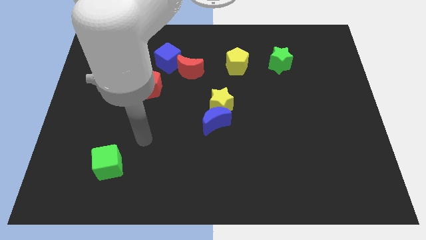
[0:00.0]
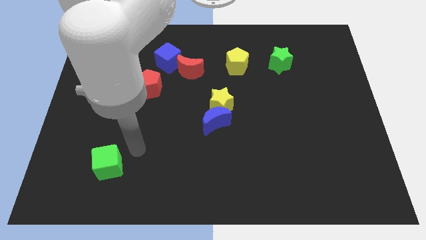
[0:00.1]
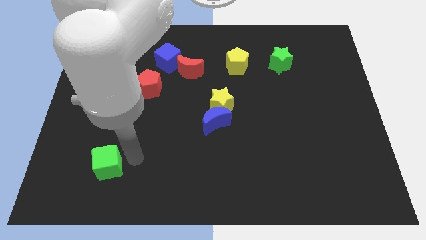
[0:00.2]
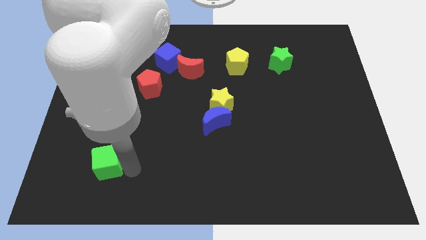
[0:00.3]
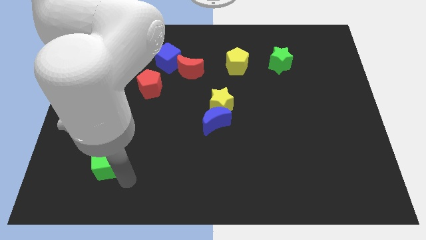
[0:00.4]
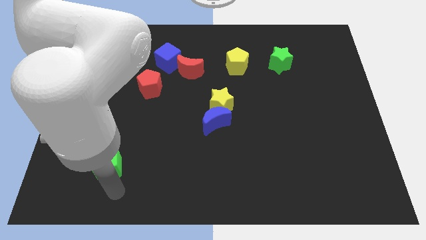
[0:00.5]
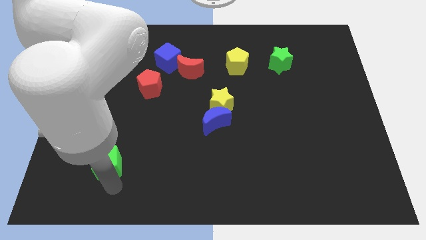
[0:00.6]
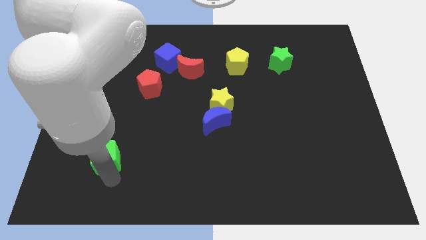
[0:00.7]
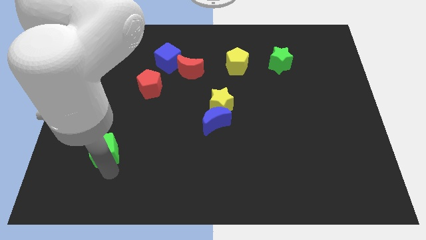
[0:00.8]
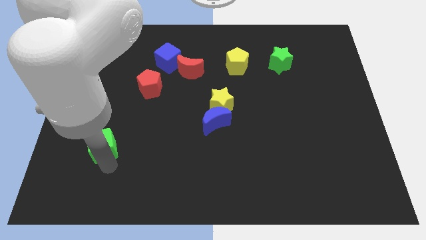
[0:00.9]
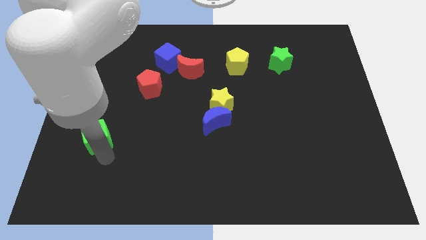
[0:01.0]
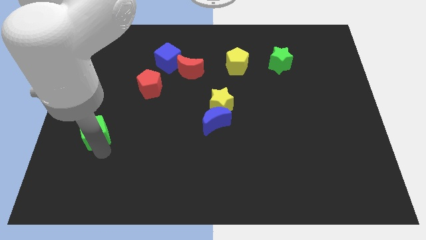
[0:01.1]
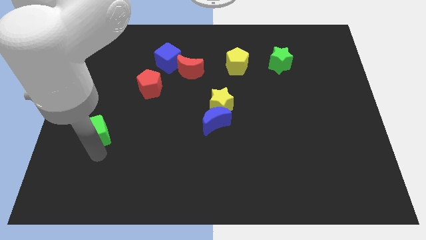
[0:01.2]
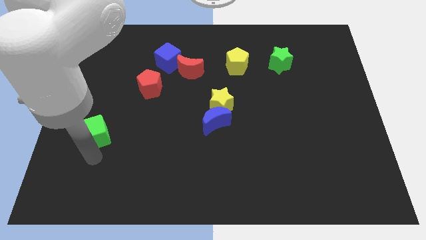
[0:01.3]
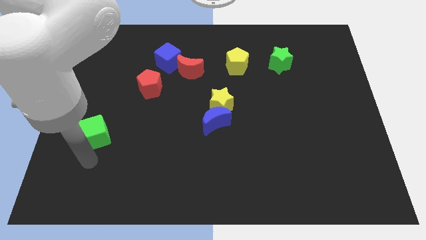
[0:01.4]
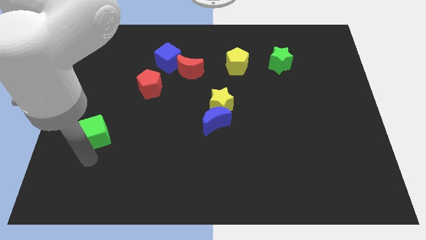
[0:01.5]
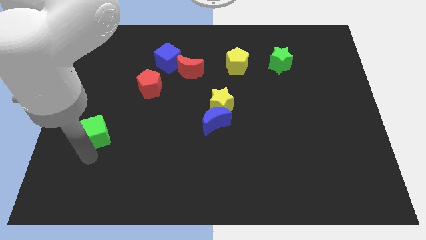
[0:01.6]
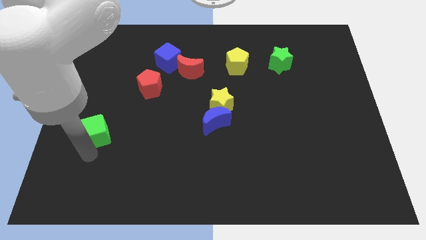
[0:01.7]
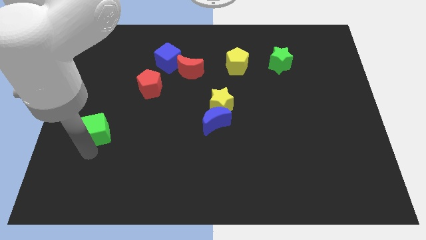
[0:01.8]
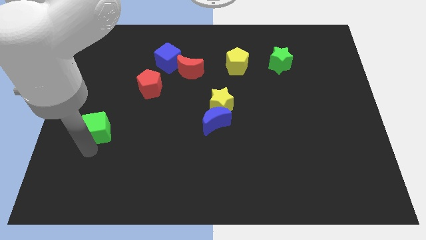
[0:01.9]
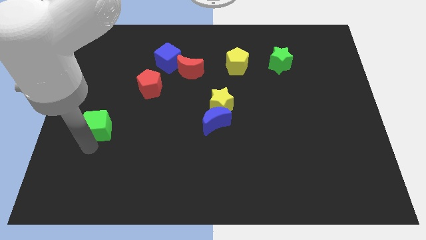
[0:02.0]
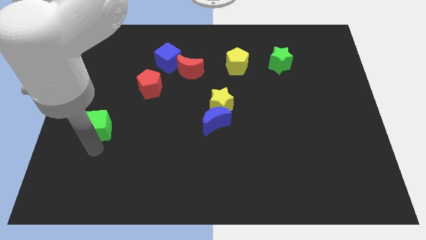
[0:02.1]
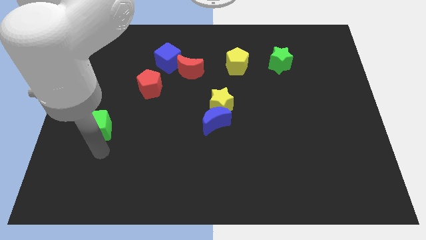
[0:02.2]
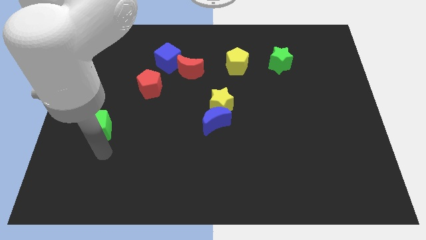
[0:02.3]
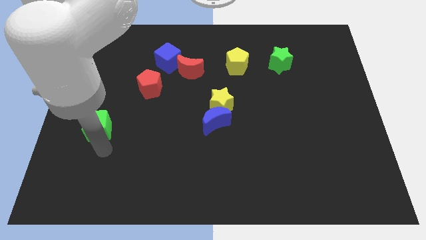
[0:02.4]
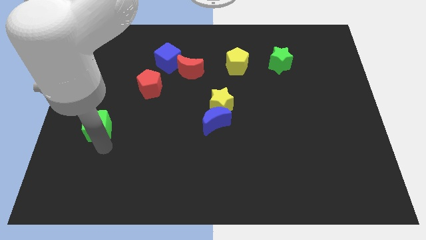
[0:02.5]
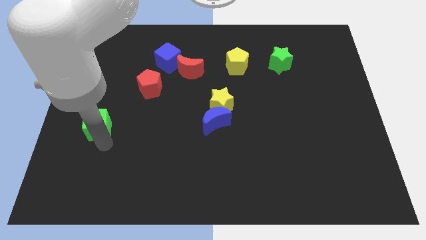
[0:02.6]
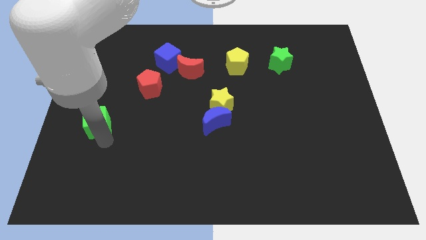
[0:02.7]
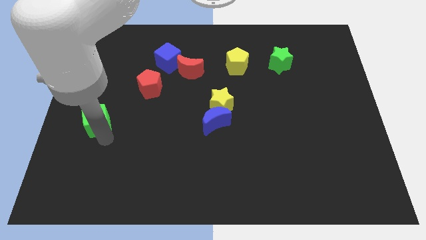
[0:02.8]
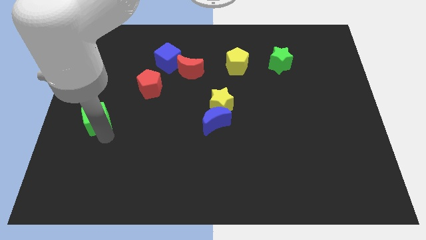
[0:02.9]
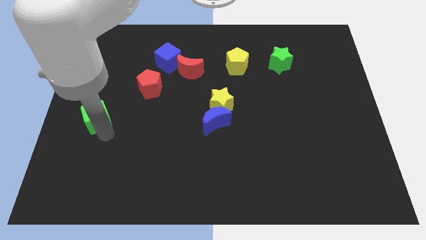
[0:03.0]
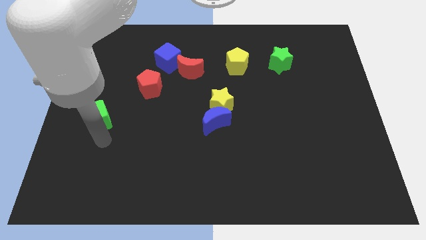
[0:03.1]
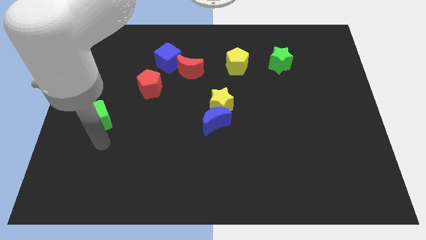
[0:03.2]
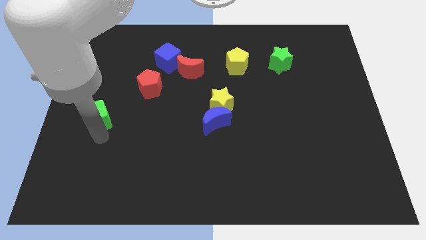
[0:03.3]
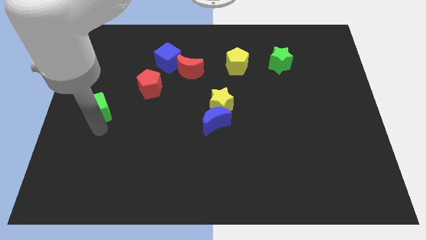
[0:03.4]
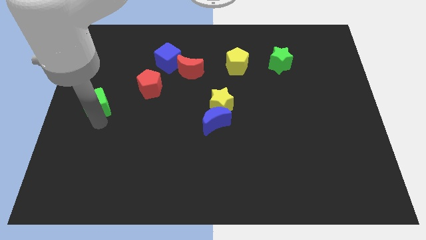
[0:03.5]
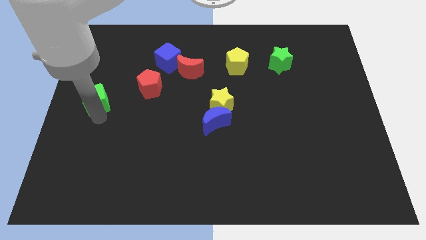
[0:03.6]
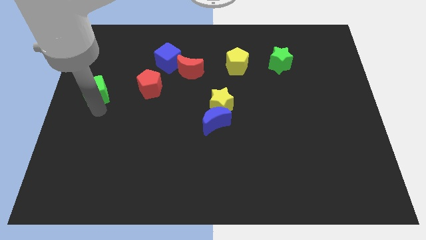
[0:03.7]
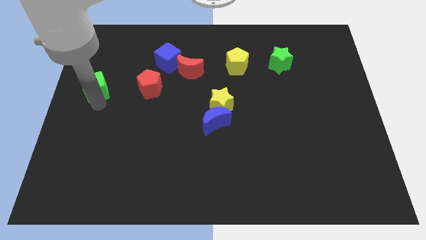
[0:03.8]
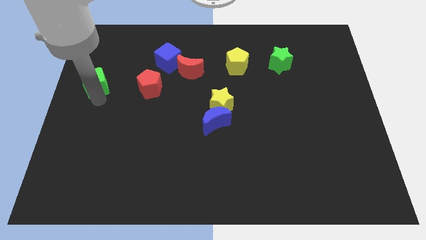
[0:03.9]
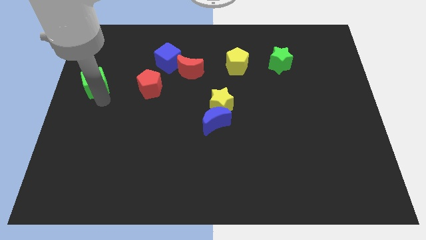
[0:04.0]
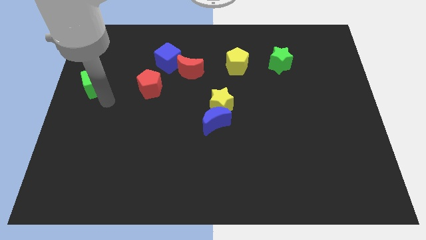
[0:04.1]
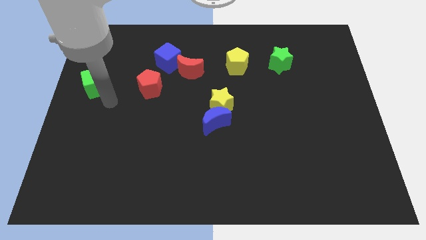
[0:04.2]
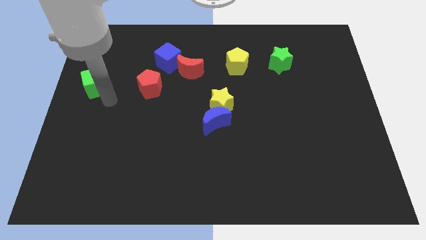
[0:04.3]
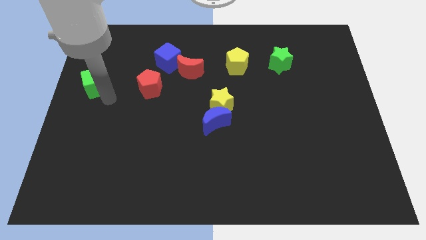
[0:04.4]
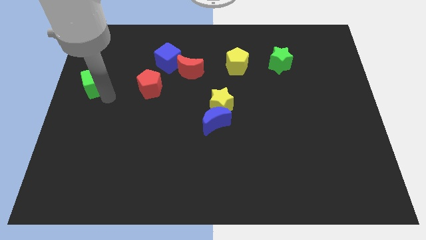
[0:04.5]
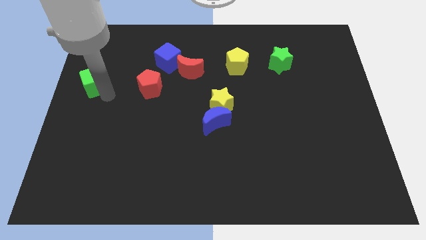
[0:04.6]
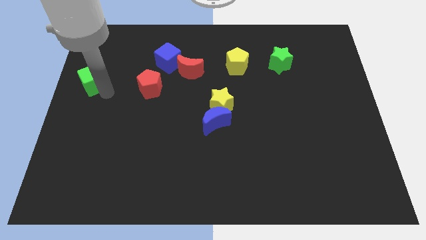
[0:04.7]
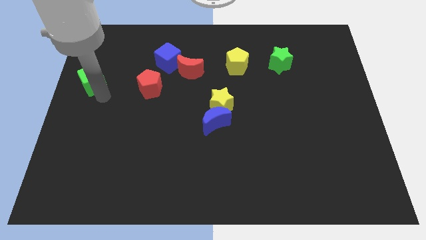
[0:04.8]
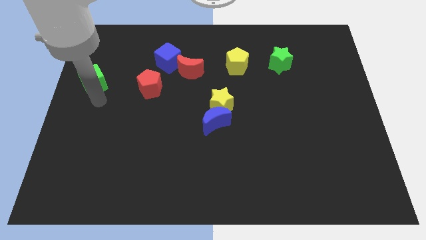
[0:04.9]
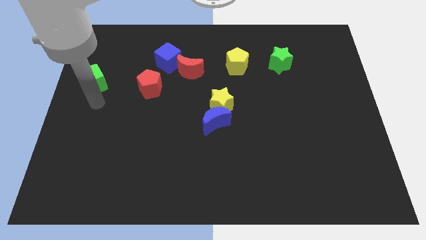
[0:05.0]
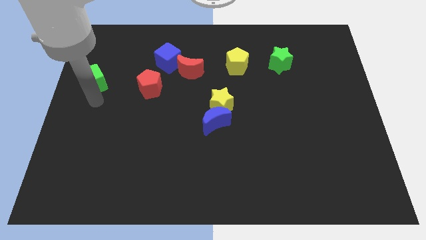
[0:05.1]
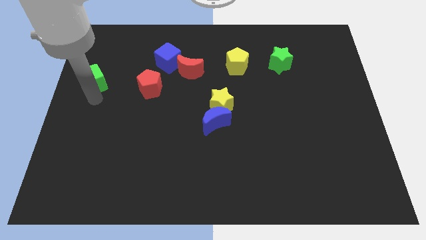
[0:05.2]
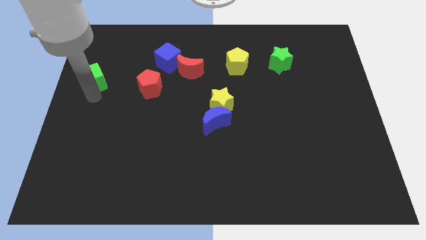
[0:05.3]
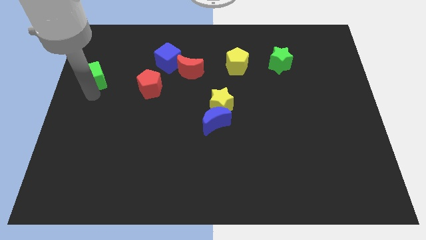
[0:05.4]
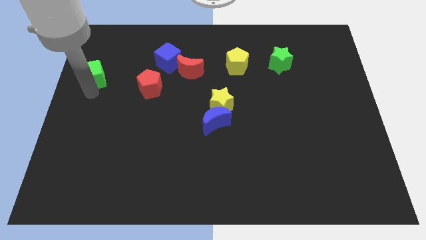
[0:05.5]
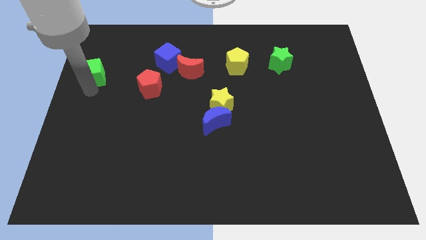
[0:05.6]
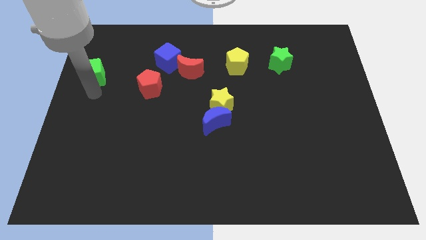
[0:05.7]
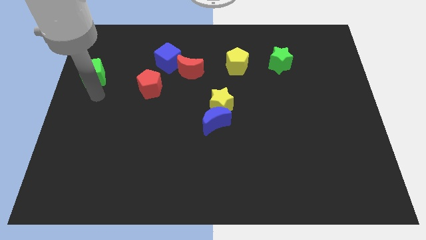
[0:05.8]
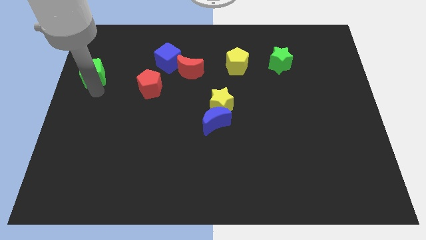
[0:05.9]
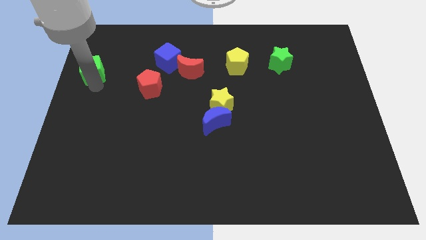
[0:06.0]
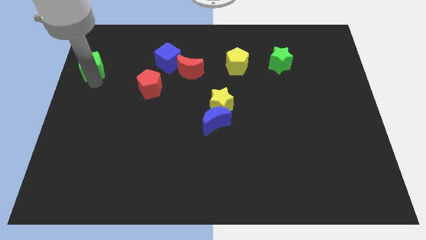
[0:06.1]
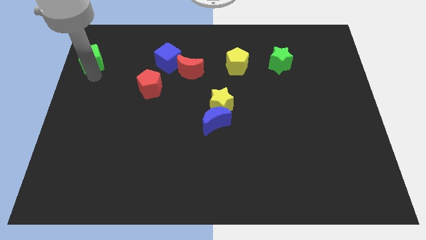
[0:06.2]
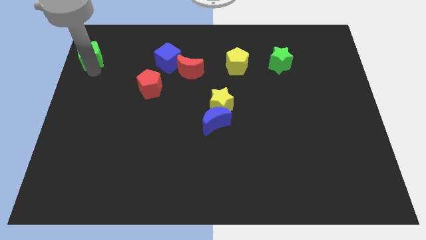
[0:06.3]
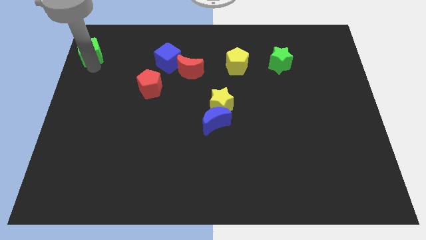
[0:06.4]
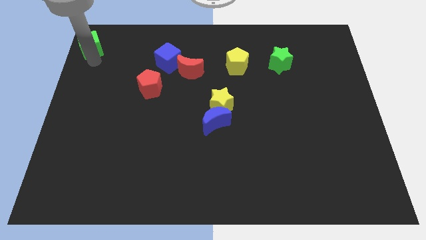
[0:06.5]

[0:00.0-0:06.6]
push the green cube to the upper left corner
